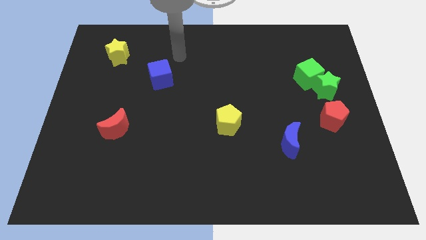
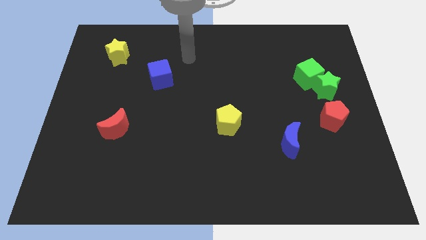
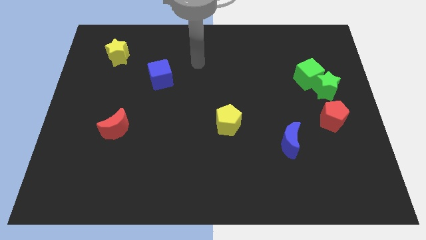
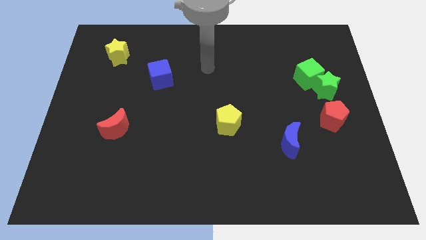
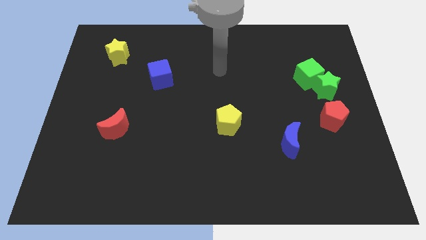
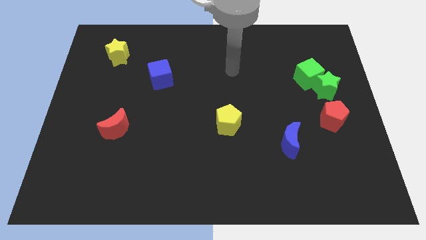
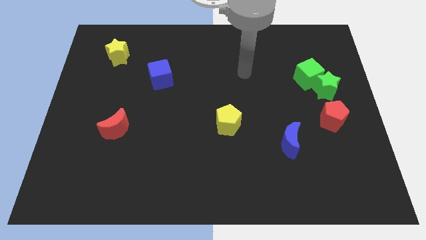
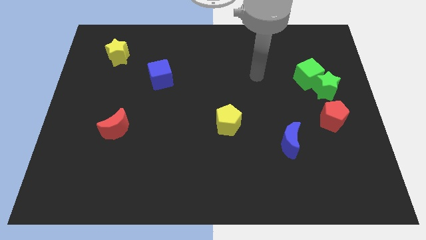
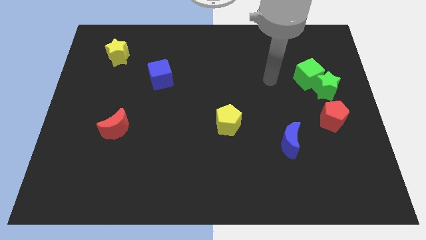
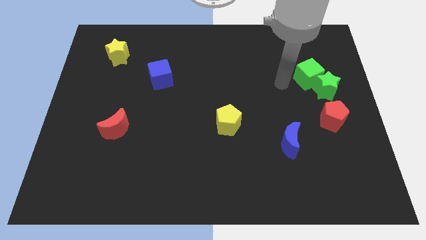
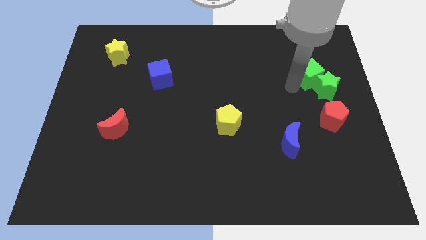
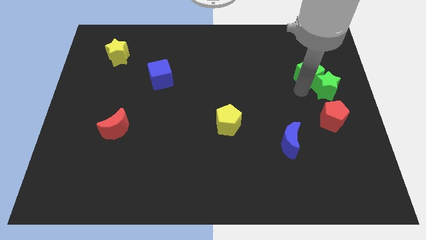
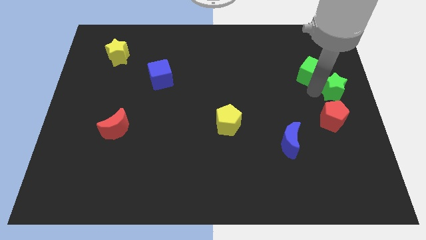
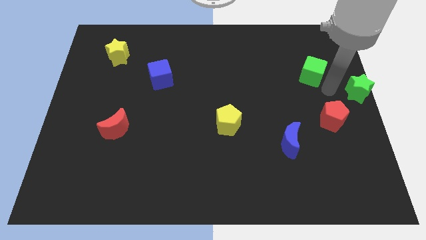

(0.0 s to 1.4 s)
separate the green cube from the green star

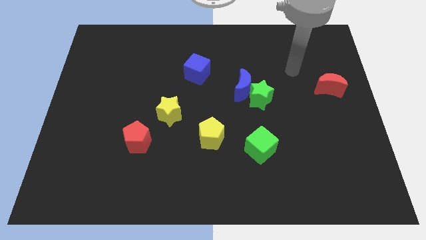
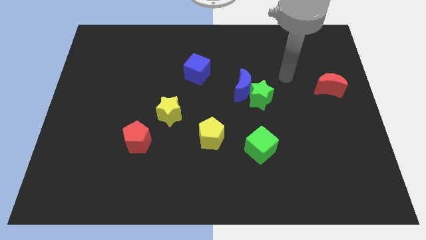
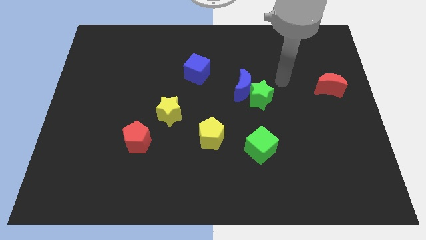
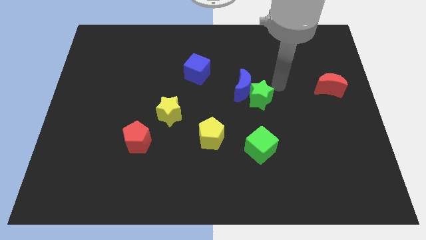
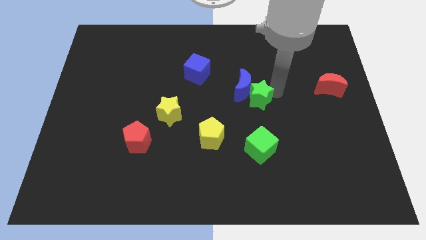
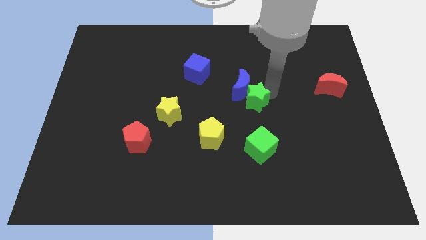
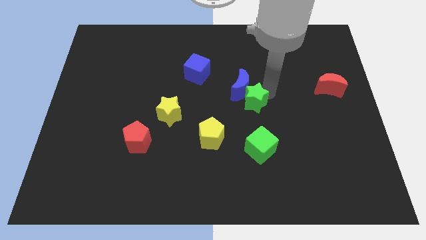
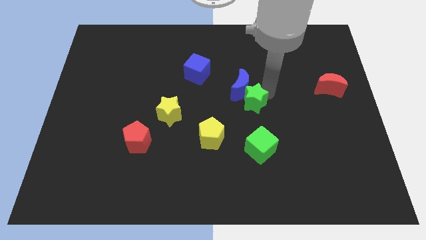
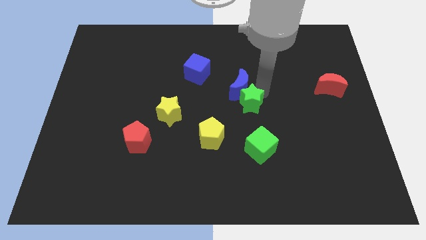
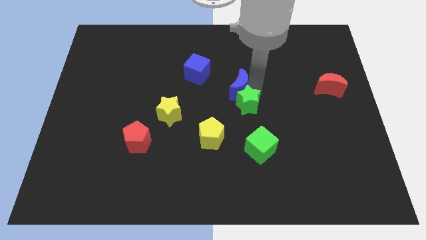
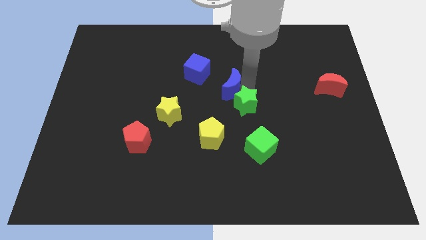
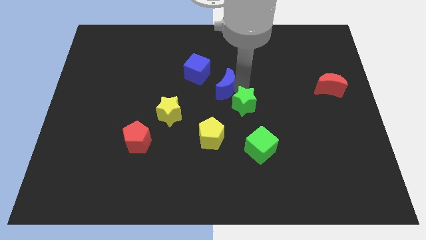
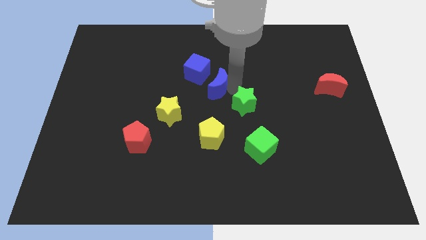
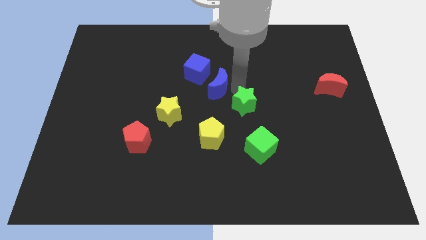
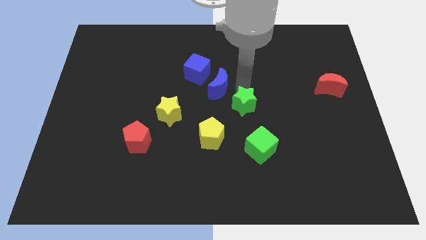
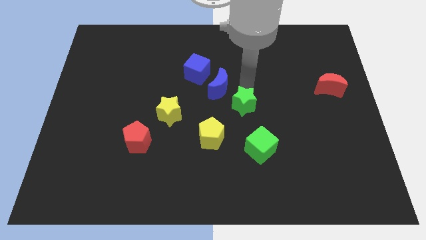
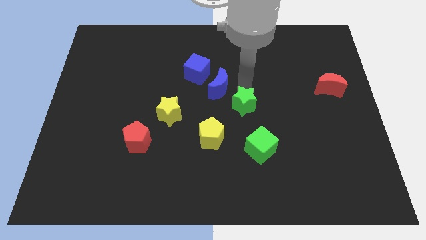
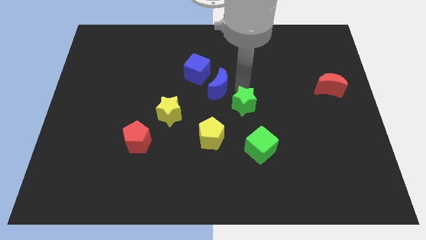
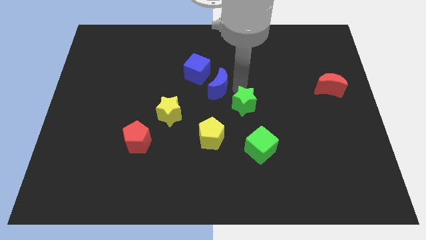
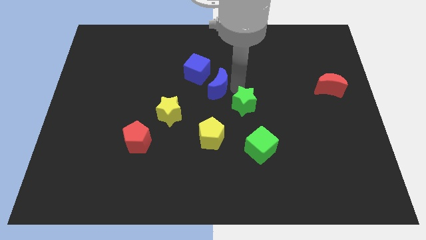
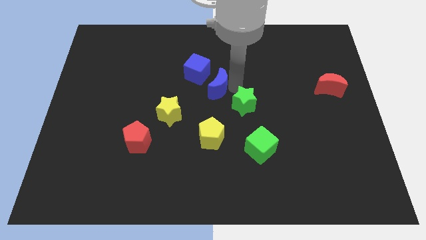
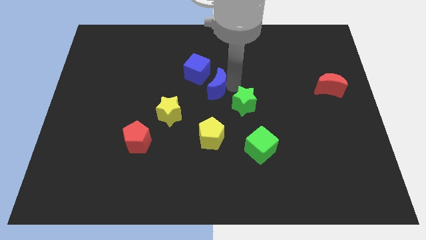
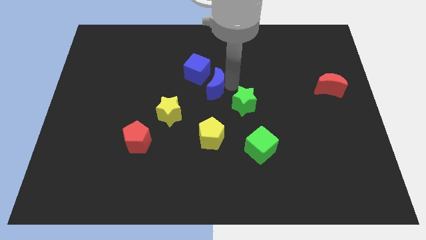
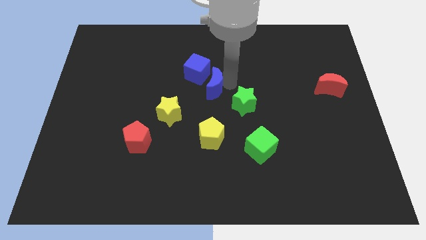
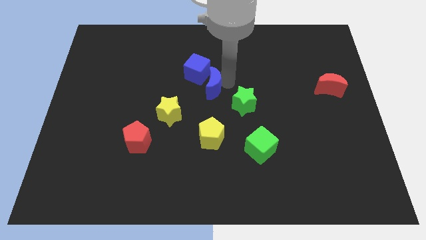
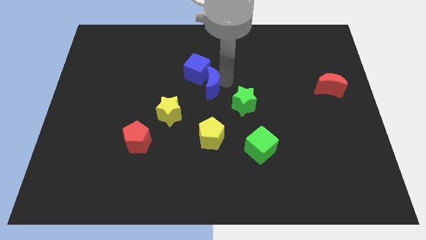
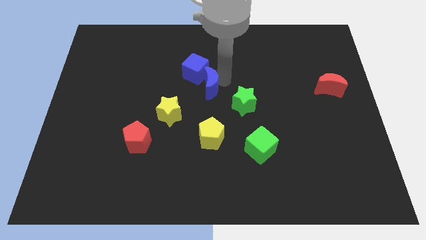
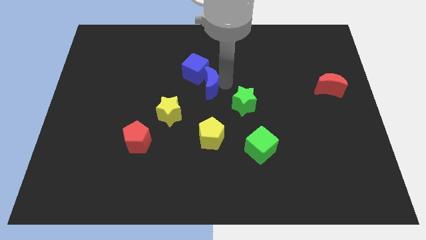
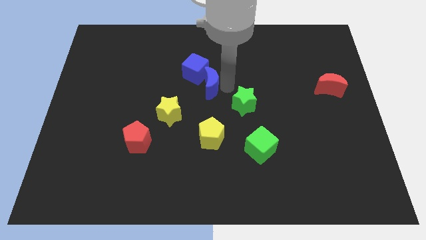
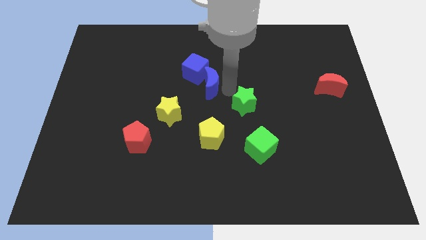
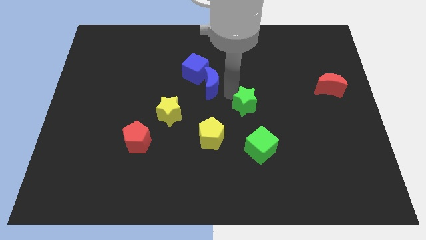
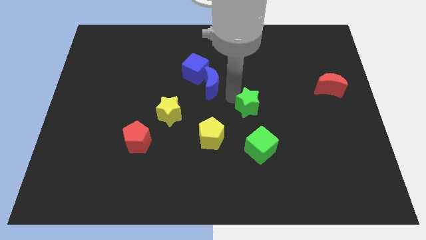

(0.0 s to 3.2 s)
pull the blue moon apart from the green star

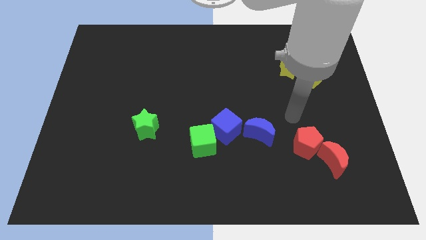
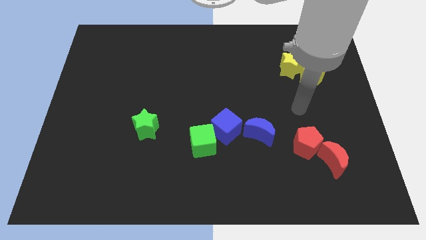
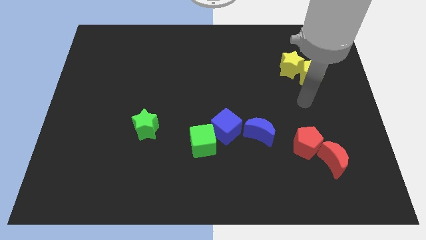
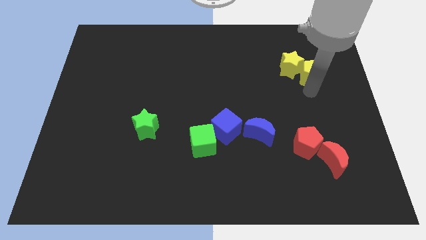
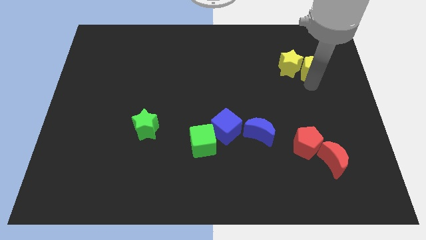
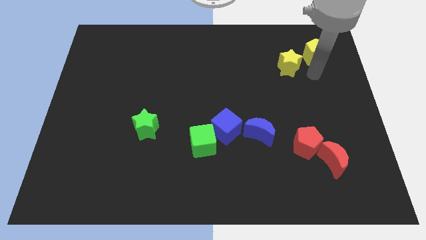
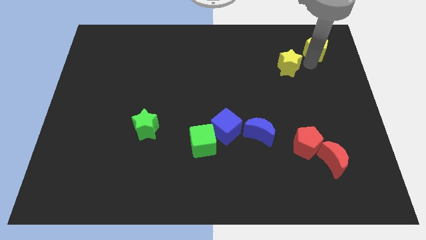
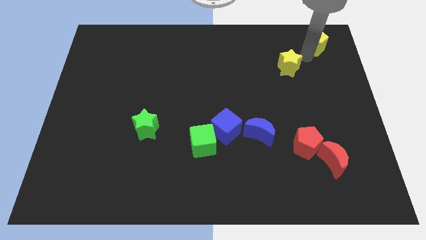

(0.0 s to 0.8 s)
pull the yellow star apart from the yellow pentagon

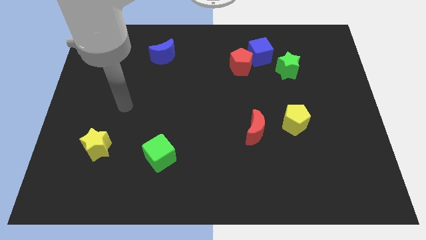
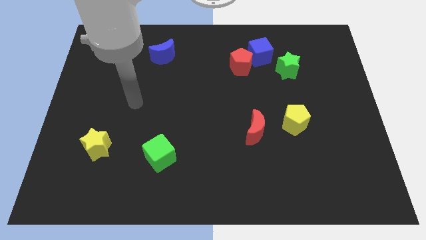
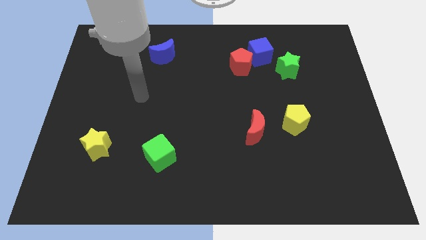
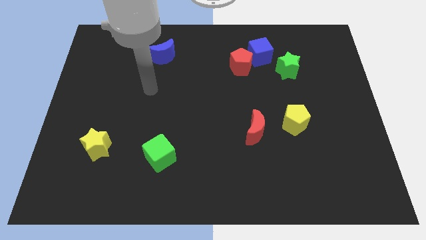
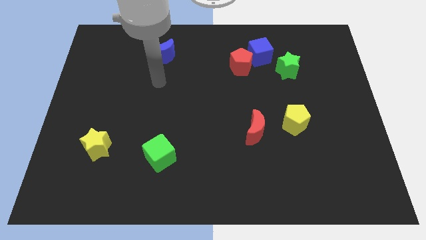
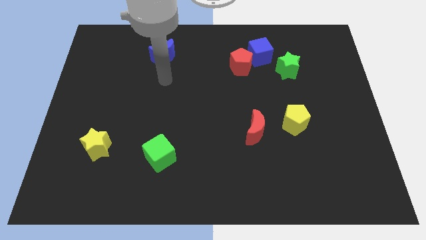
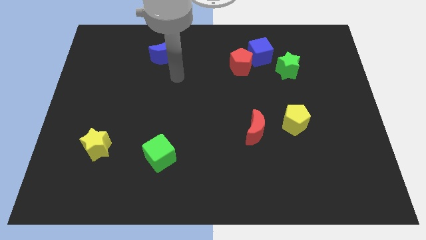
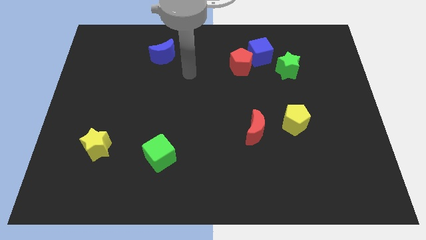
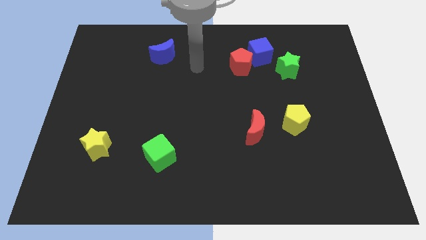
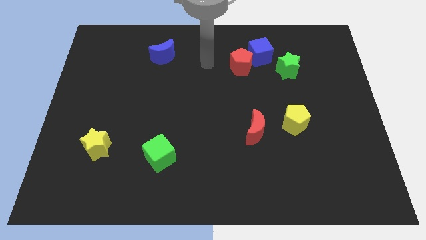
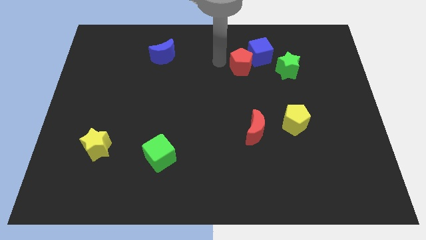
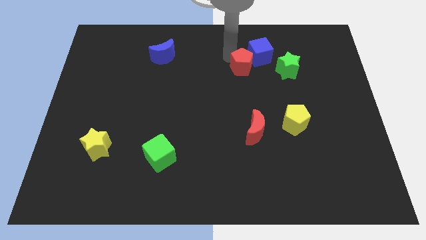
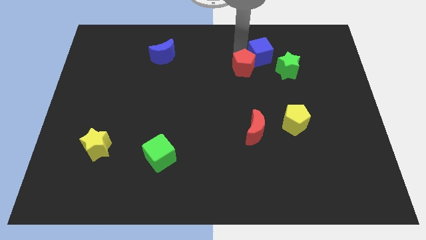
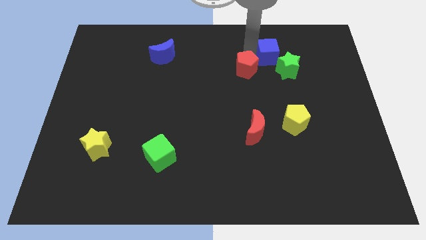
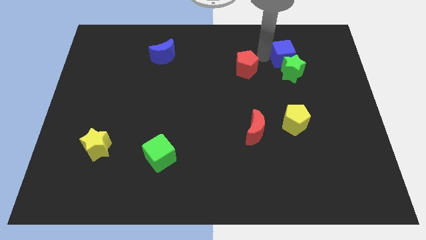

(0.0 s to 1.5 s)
separate the red pentagon from the blue cube

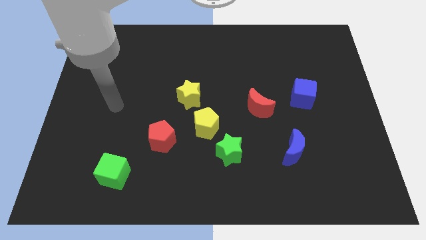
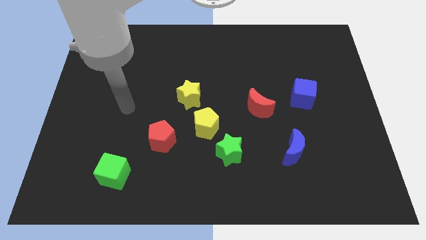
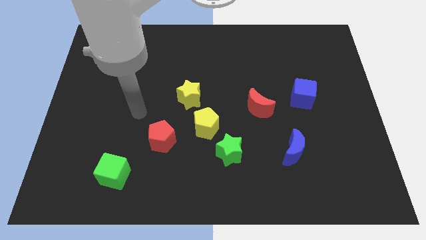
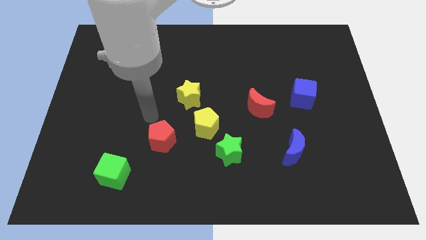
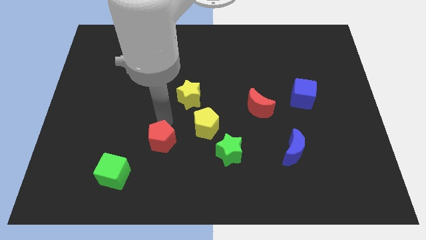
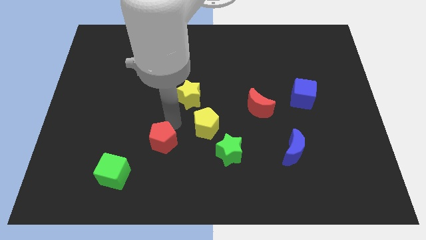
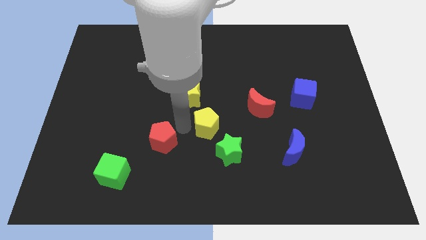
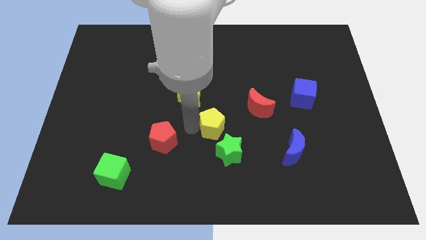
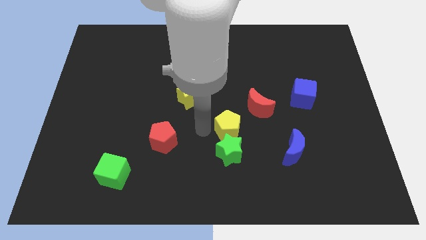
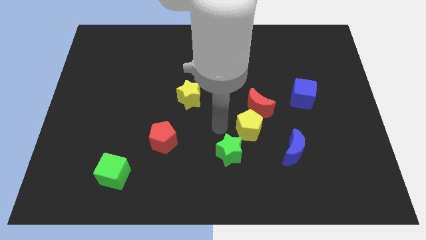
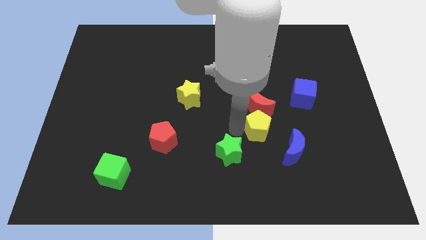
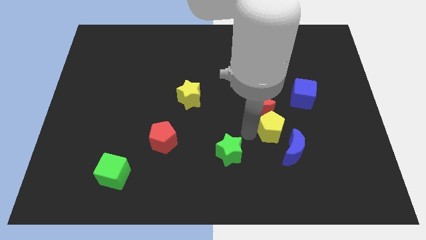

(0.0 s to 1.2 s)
move the green star away from the yellow pentagon

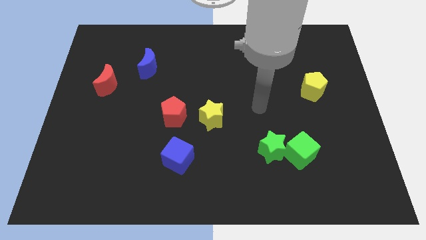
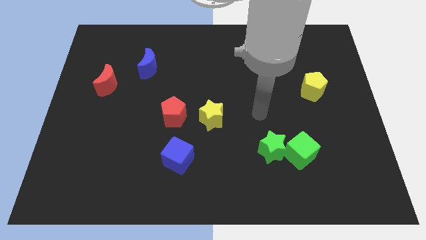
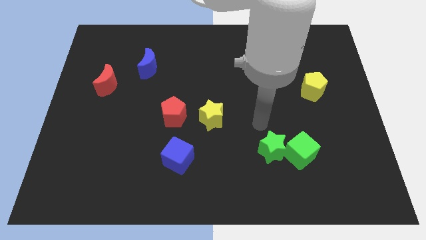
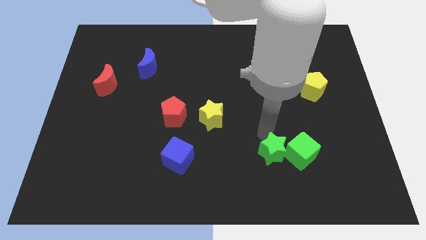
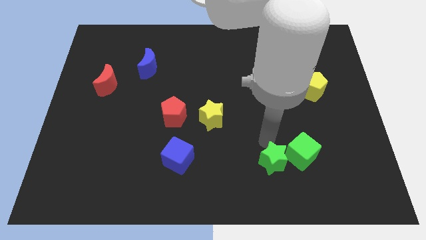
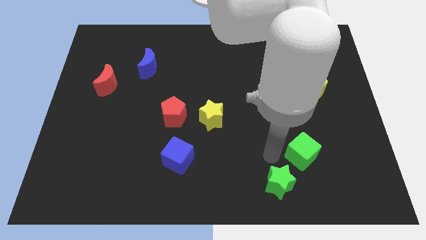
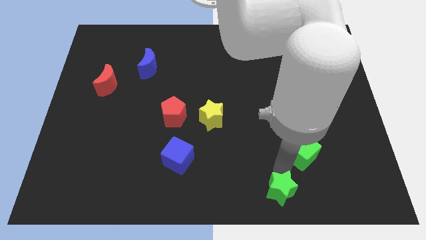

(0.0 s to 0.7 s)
move the green cube away from the green star

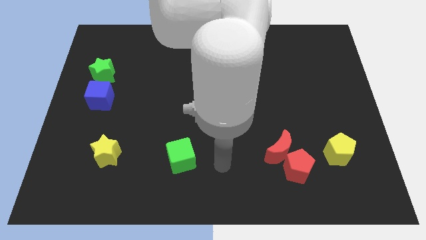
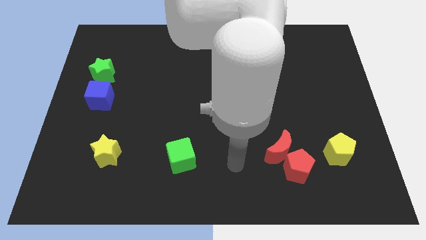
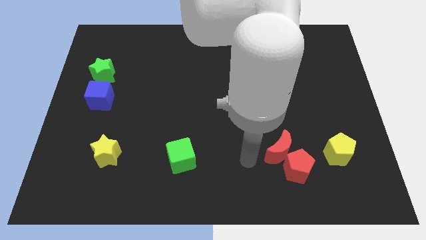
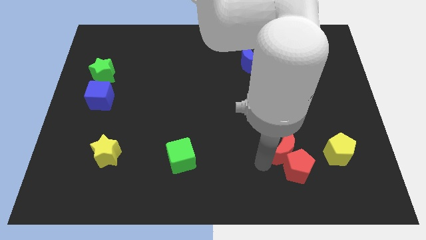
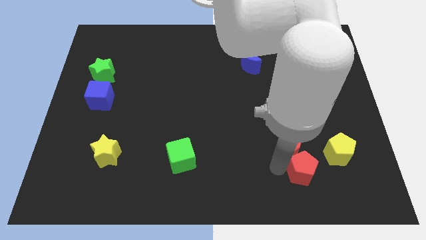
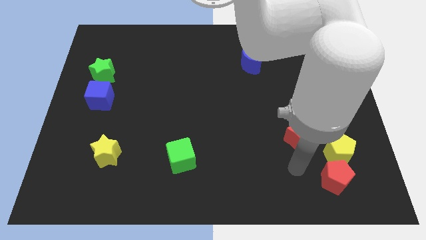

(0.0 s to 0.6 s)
pull the red moon apart from the red pentagon
